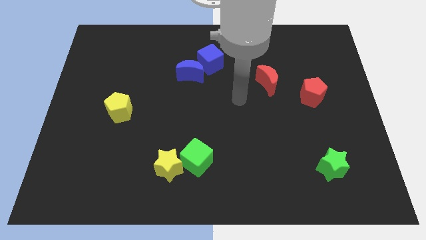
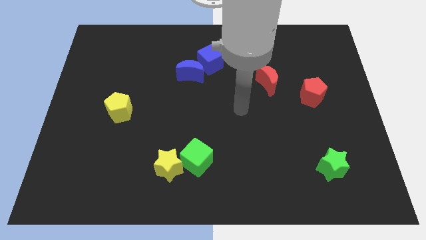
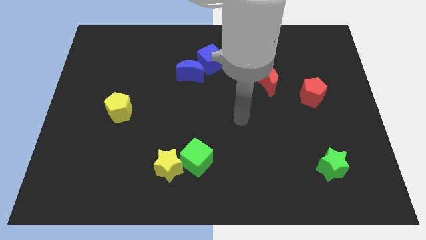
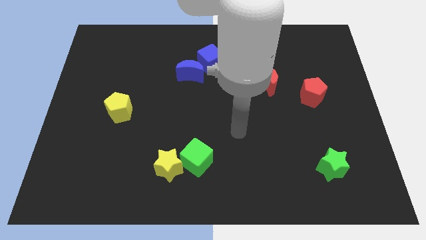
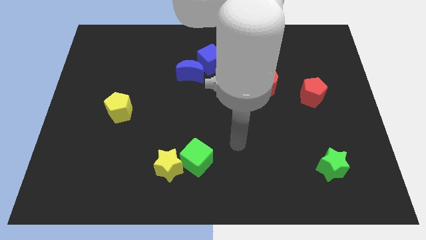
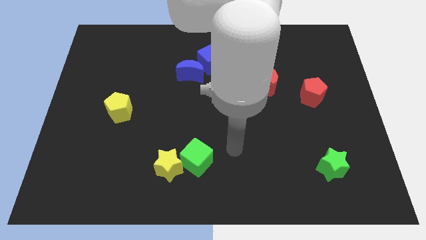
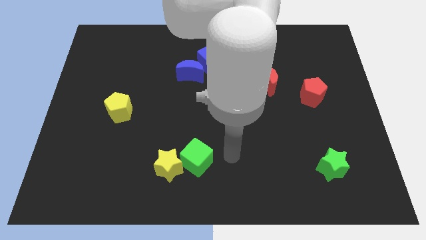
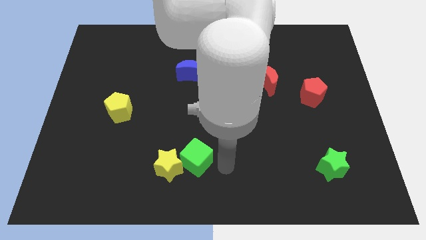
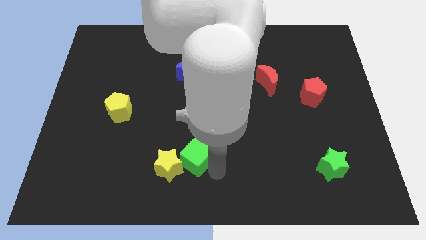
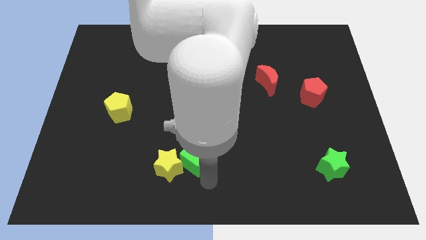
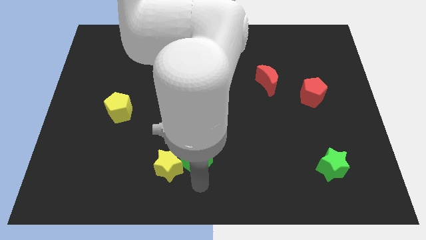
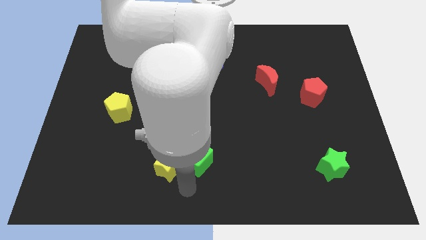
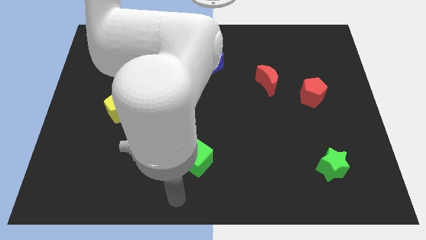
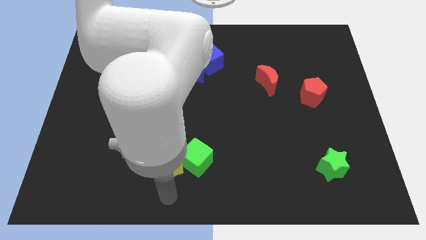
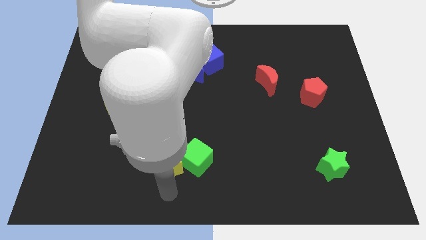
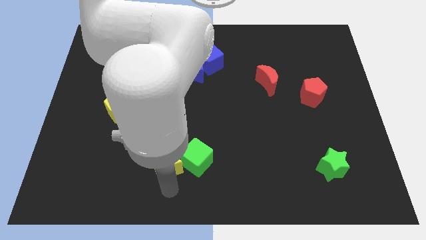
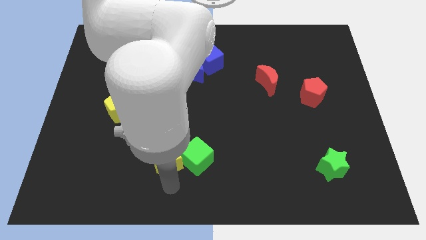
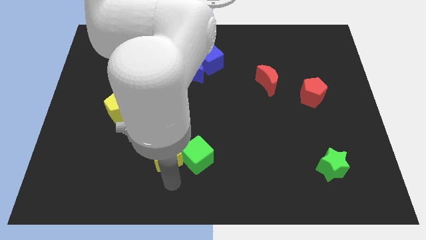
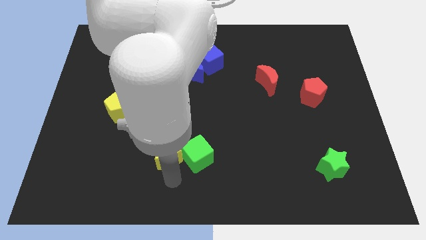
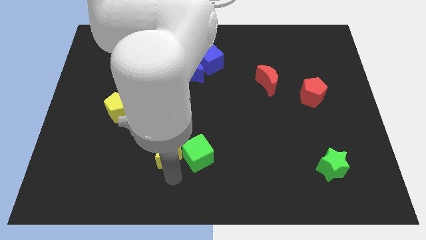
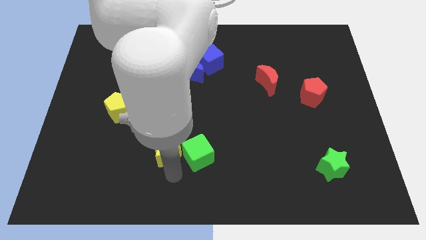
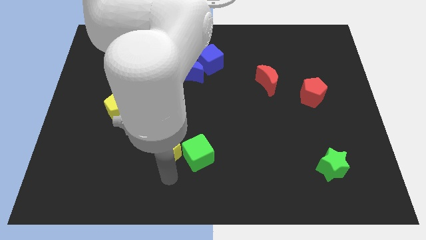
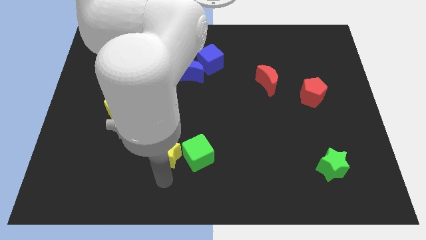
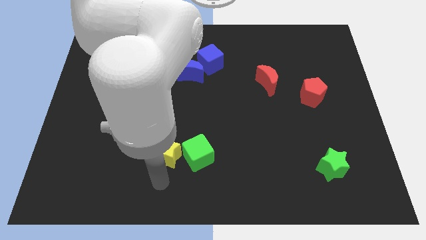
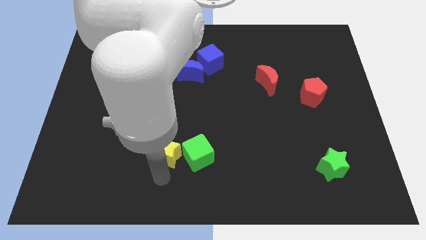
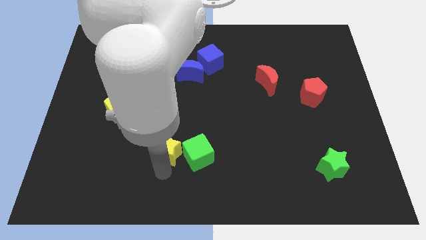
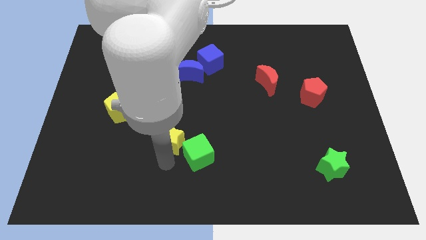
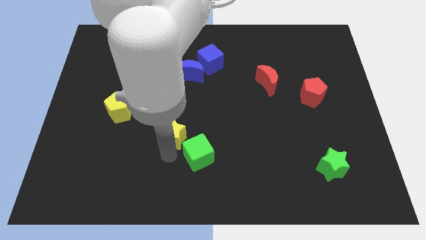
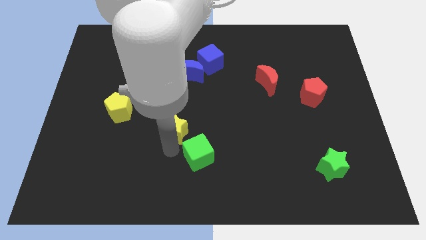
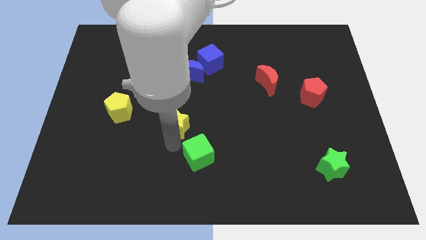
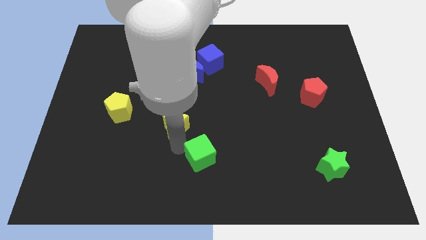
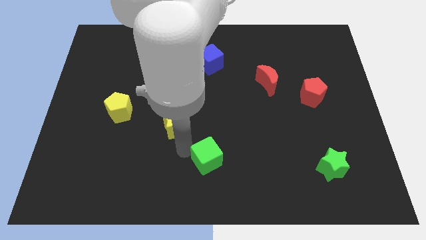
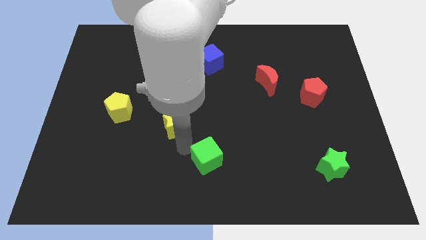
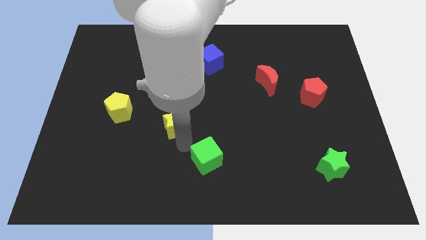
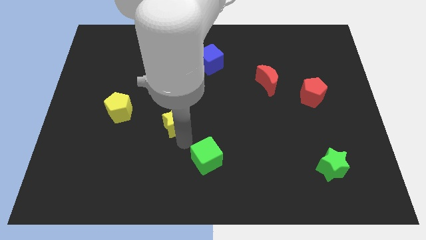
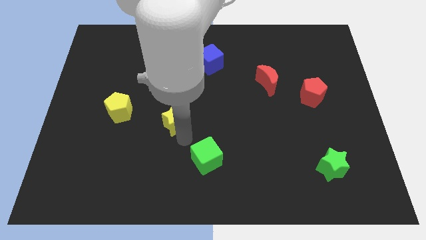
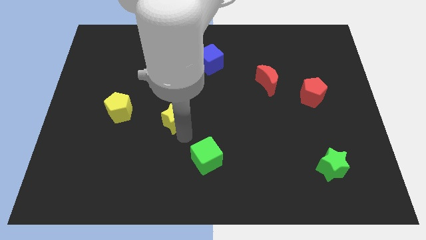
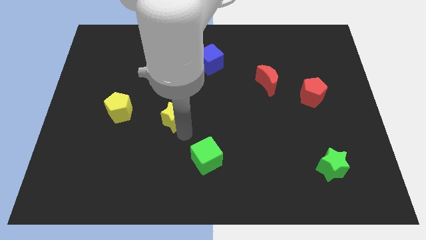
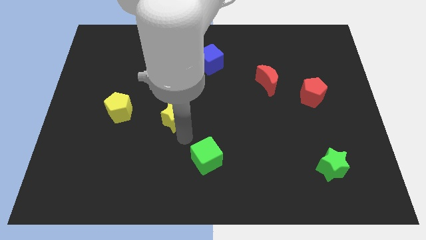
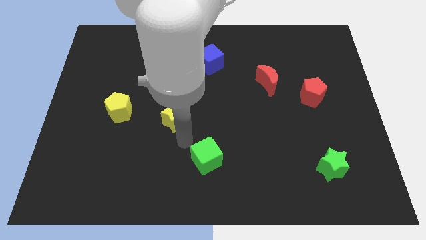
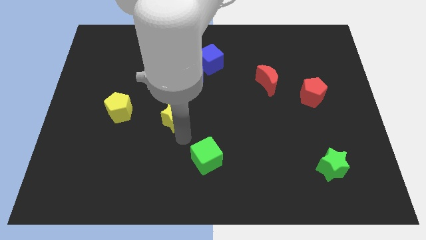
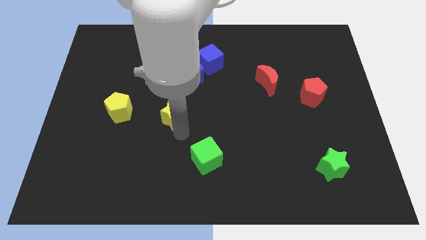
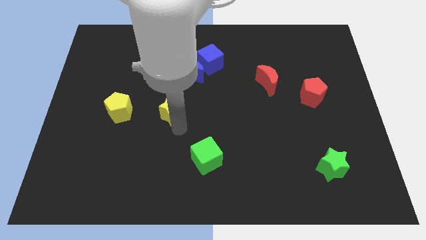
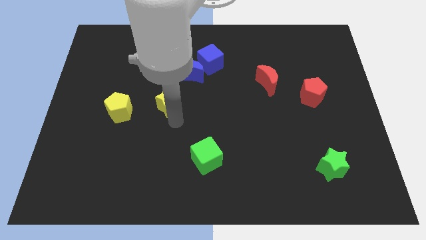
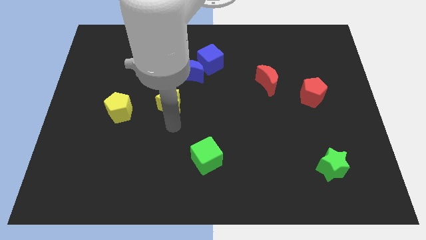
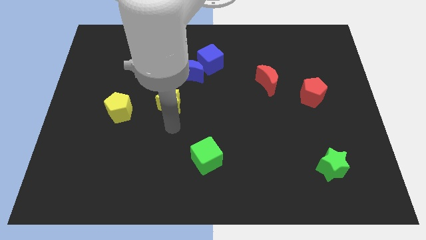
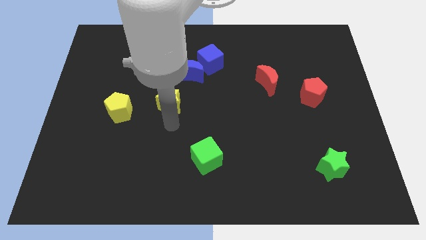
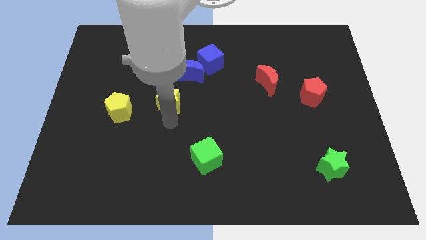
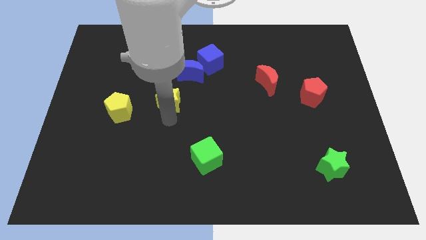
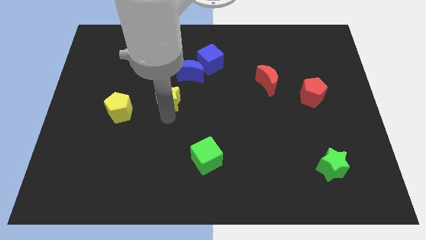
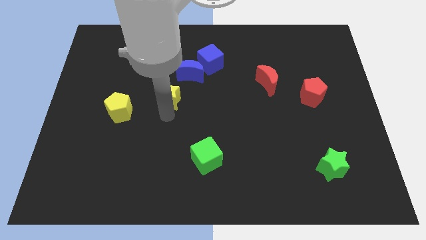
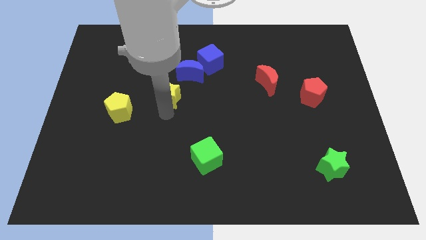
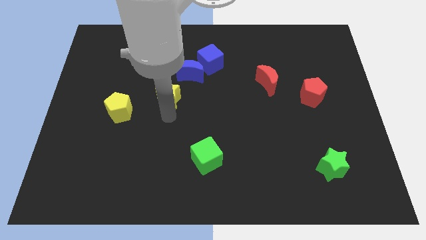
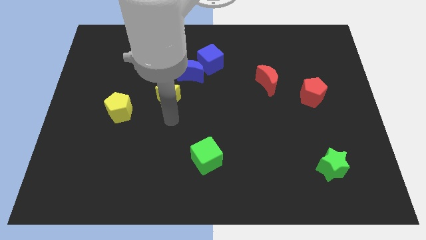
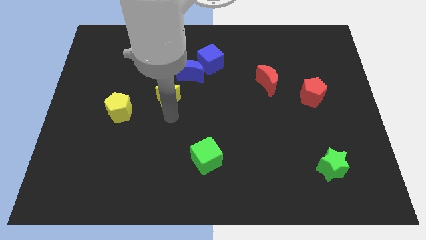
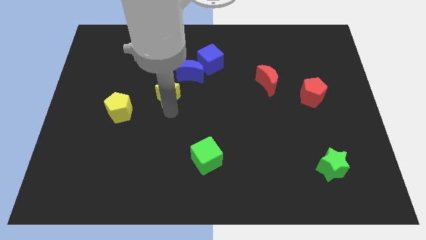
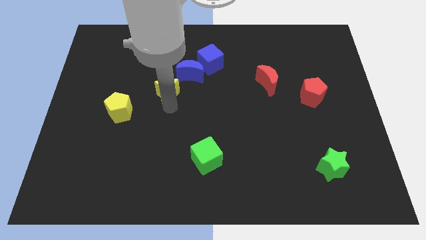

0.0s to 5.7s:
push the yellow star upwards

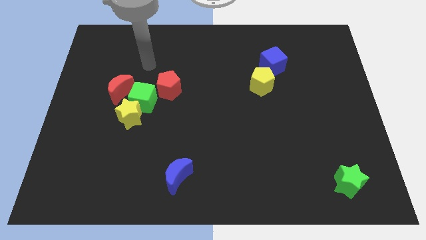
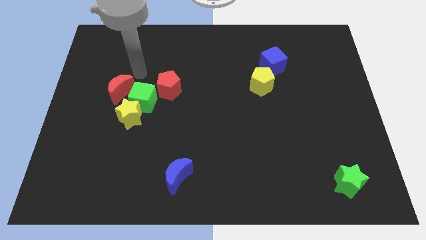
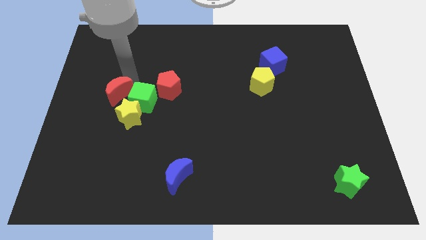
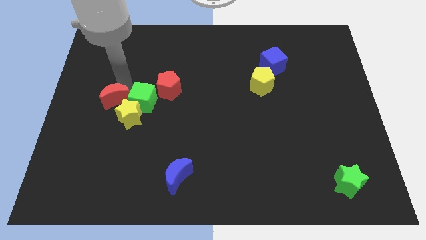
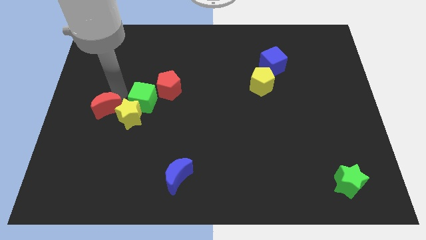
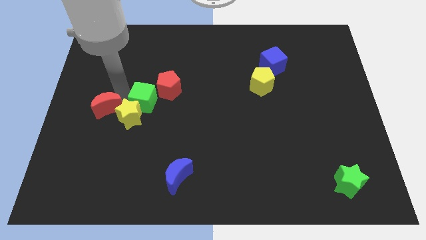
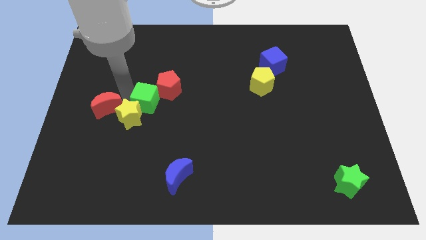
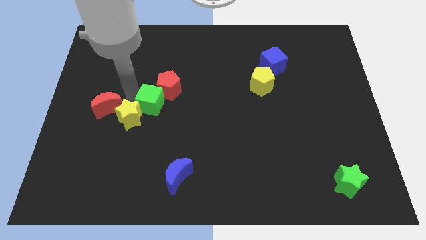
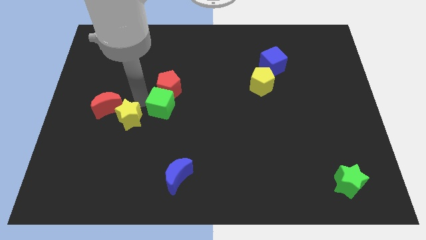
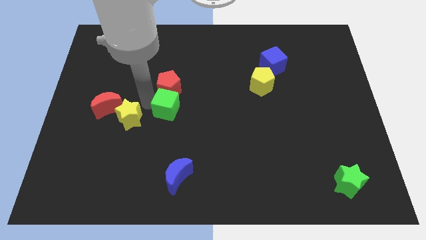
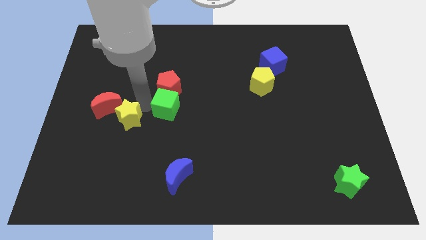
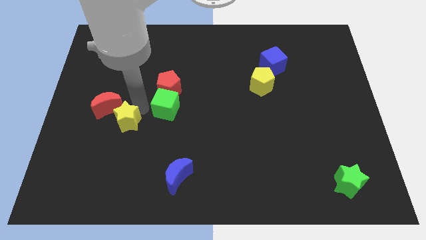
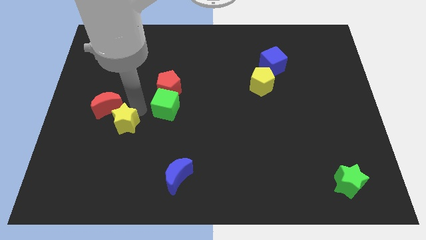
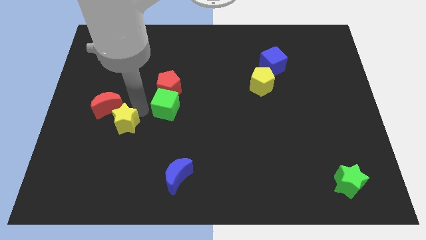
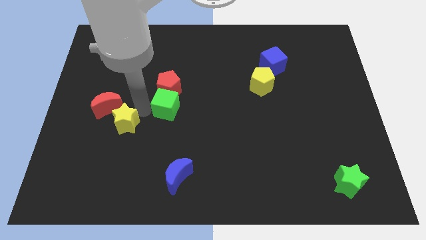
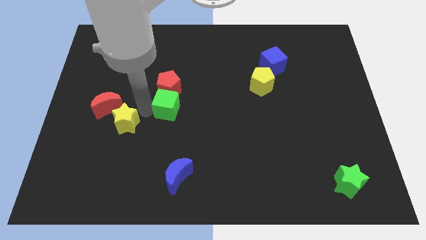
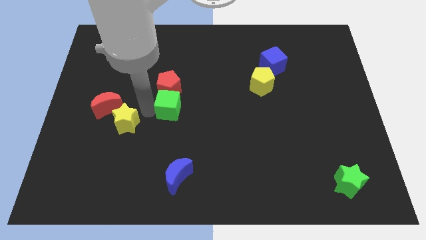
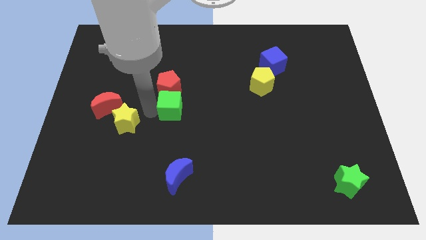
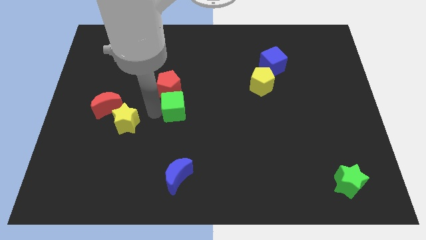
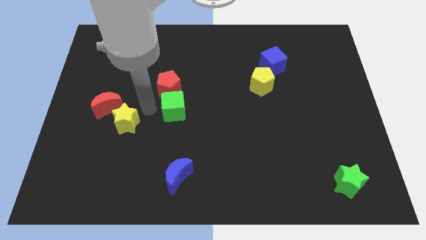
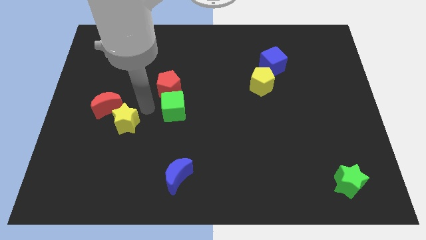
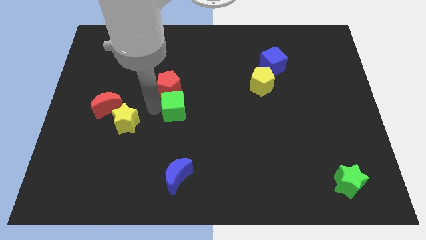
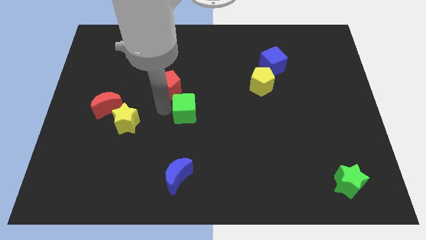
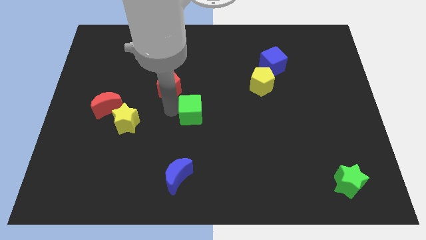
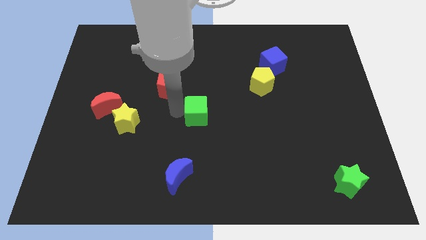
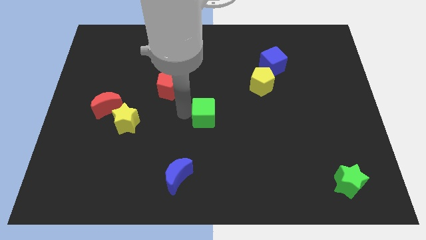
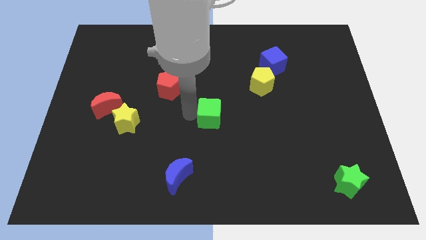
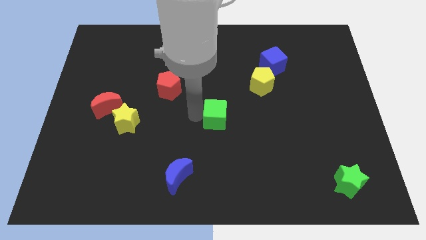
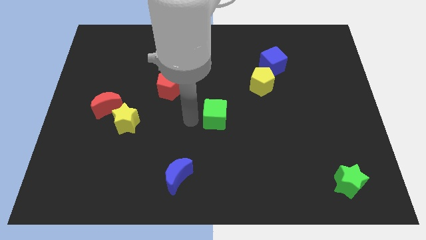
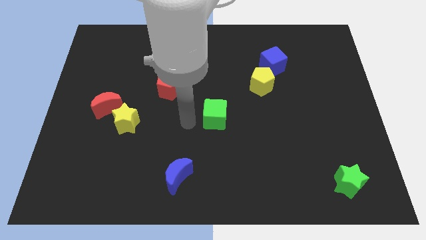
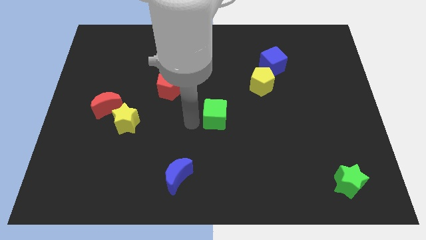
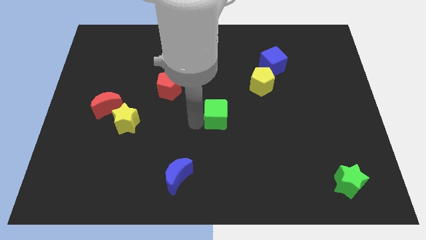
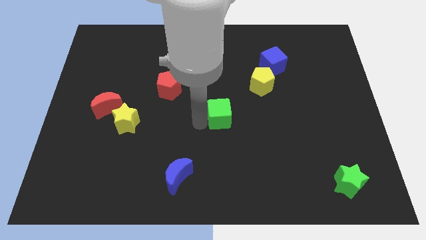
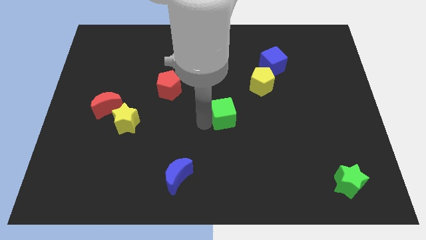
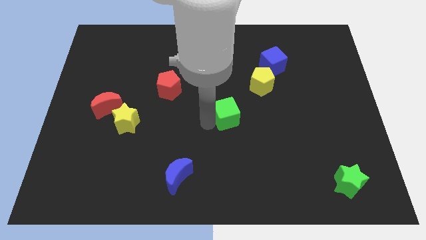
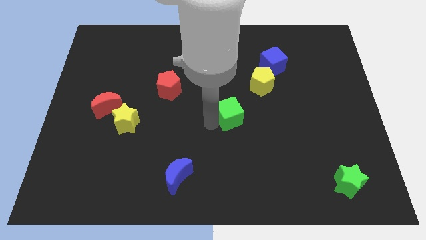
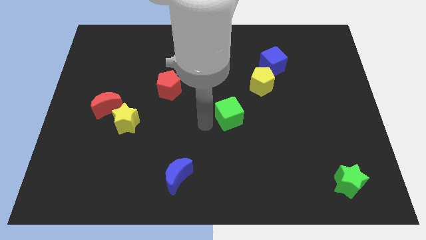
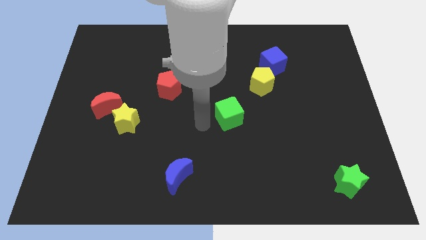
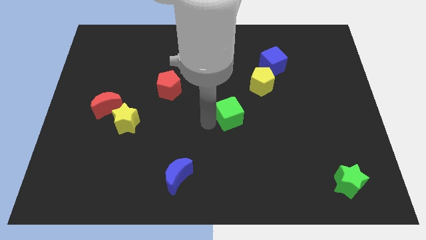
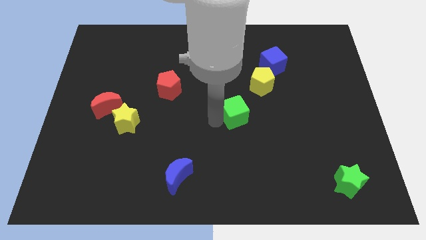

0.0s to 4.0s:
slide the green cube to the right
